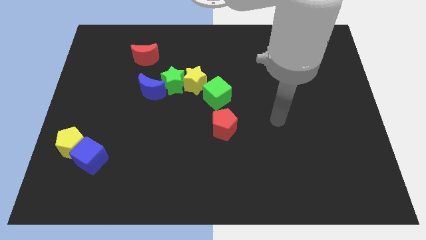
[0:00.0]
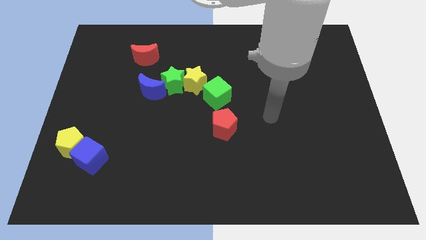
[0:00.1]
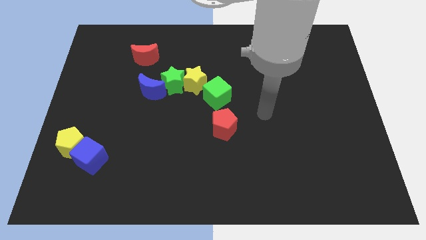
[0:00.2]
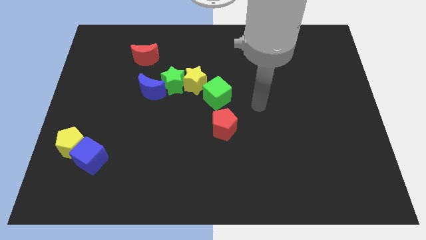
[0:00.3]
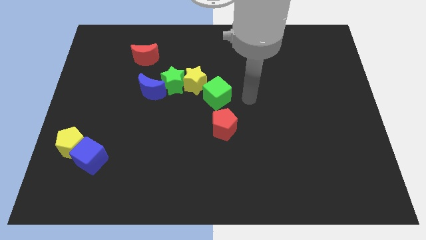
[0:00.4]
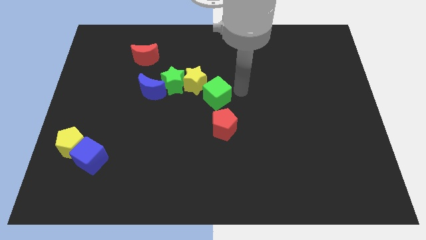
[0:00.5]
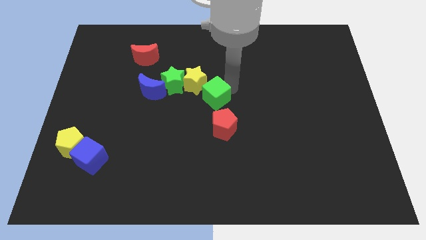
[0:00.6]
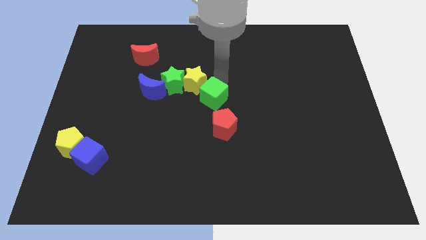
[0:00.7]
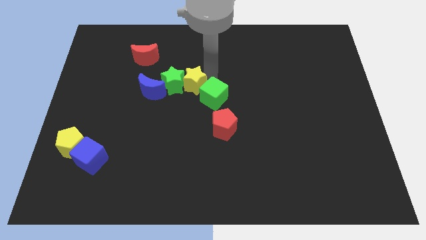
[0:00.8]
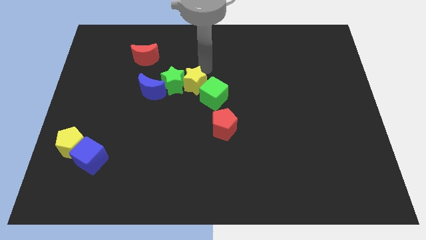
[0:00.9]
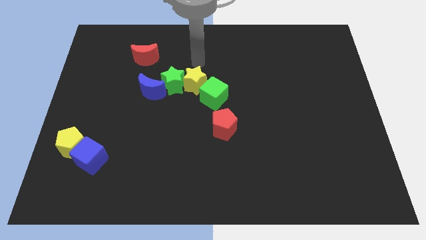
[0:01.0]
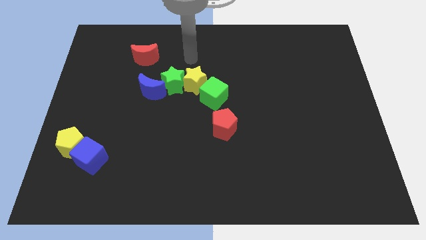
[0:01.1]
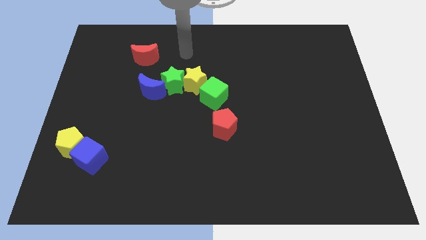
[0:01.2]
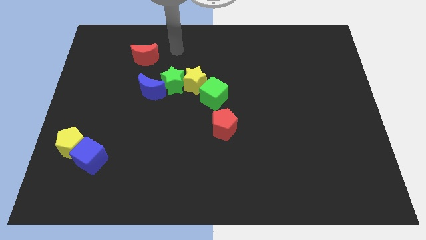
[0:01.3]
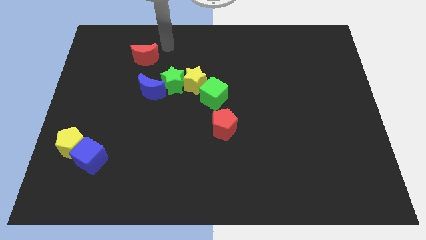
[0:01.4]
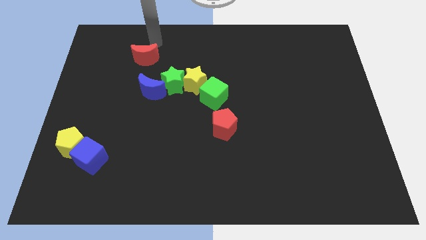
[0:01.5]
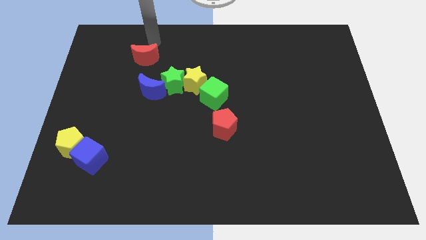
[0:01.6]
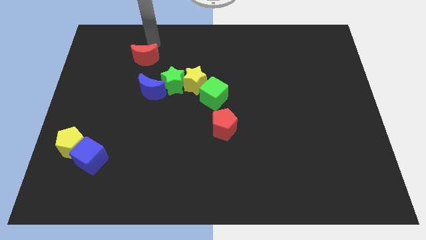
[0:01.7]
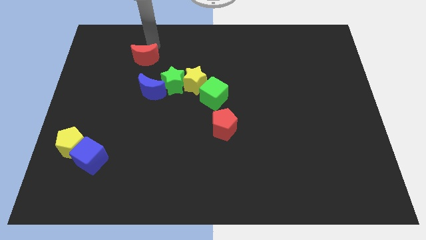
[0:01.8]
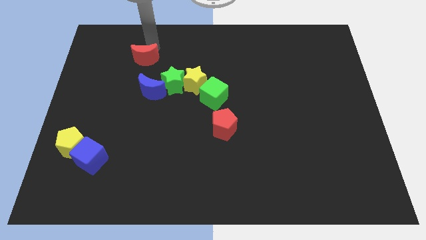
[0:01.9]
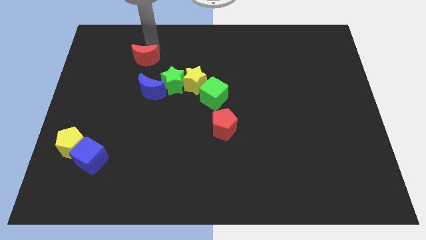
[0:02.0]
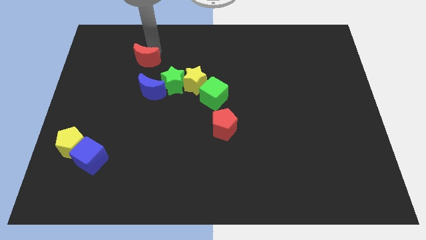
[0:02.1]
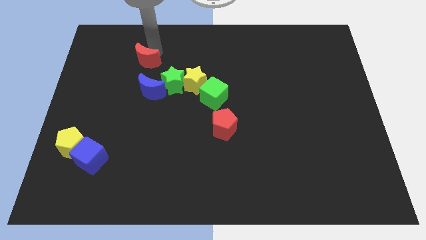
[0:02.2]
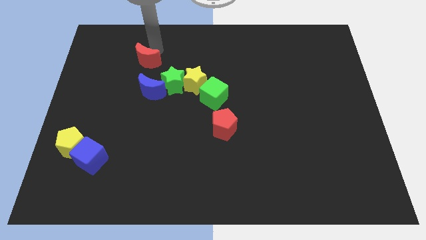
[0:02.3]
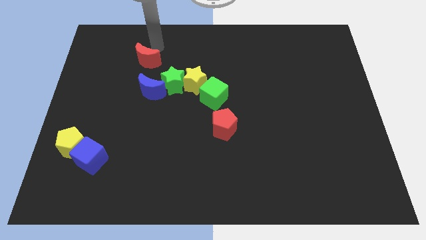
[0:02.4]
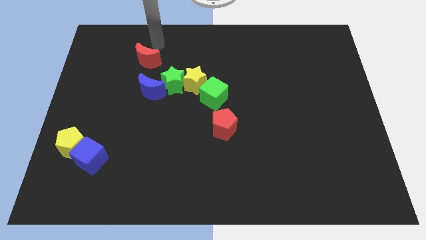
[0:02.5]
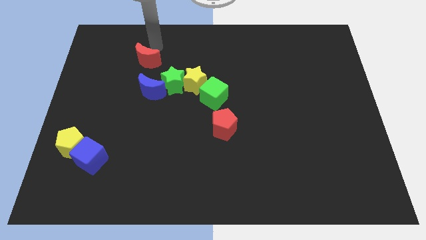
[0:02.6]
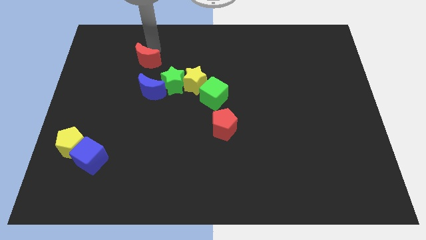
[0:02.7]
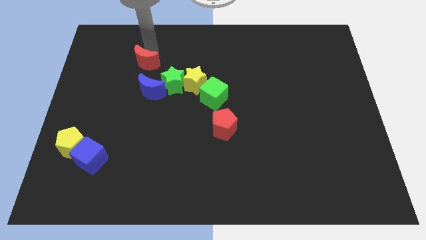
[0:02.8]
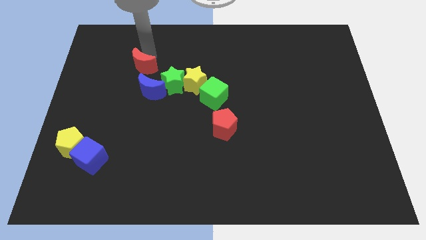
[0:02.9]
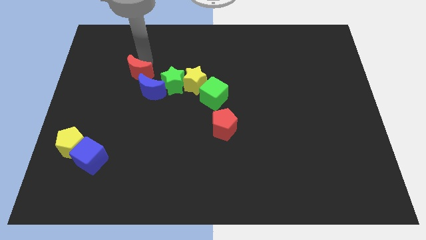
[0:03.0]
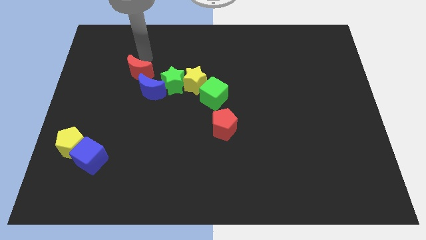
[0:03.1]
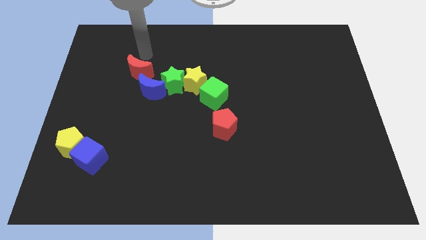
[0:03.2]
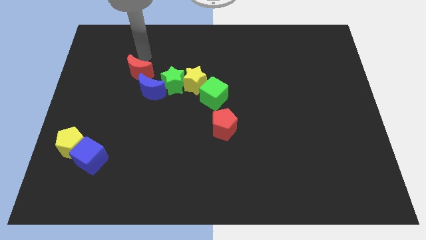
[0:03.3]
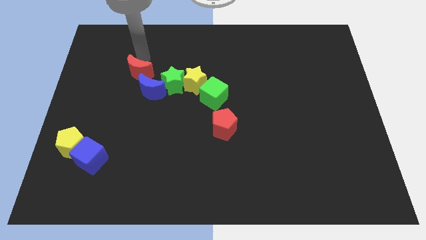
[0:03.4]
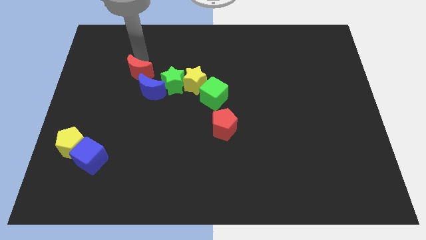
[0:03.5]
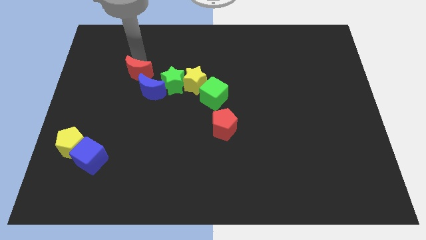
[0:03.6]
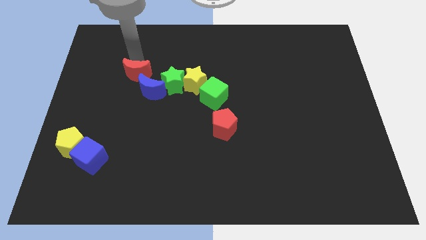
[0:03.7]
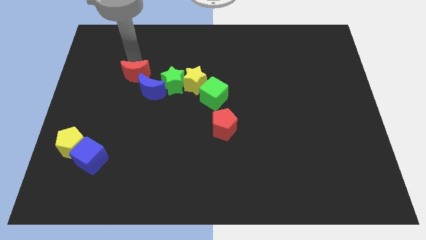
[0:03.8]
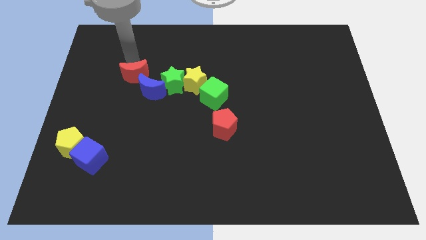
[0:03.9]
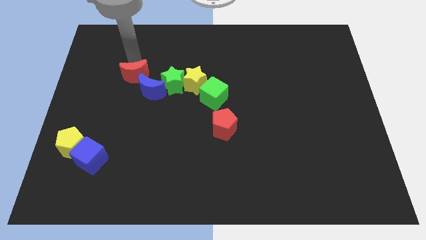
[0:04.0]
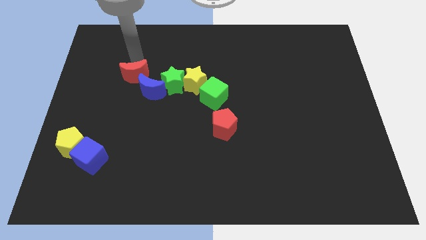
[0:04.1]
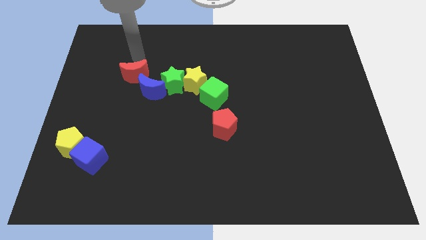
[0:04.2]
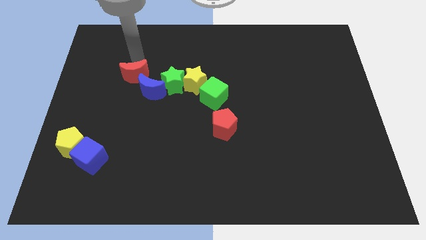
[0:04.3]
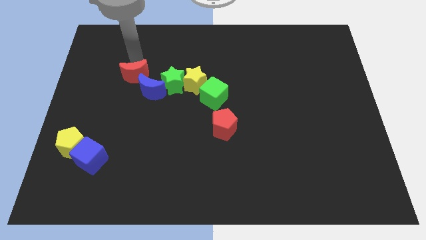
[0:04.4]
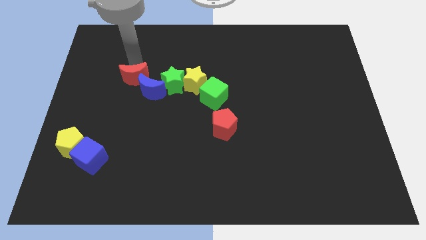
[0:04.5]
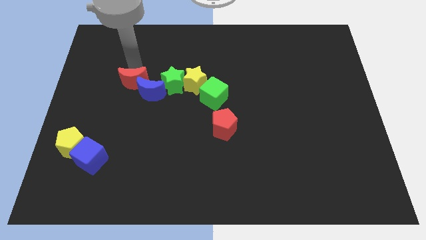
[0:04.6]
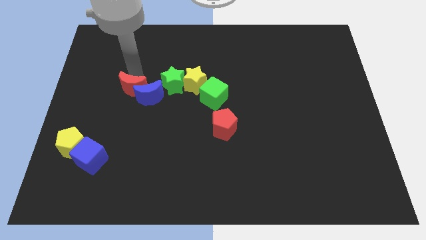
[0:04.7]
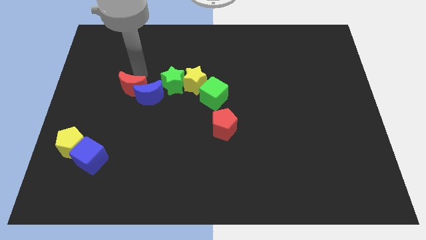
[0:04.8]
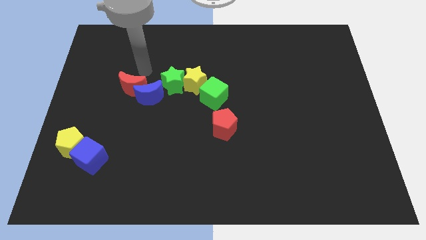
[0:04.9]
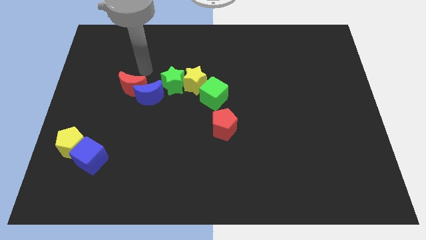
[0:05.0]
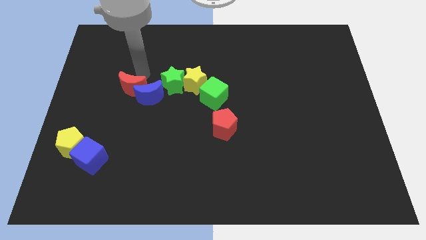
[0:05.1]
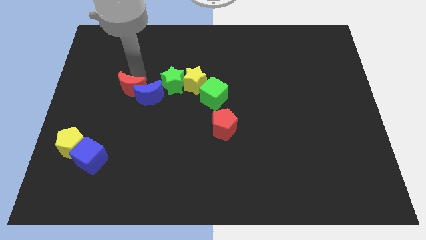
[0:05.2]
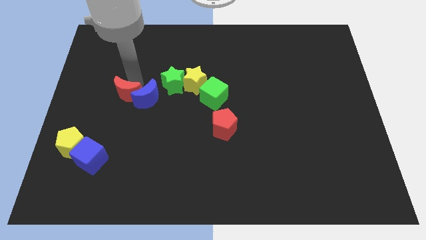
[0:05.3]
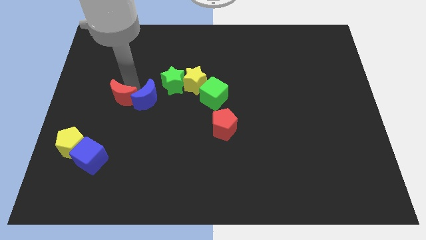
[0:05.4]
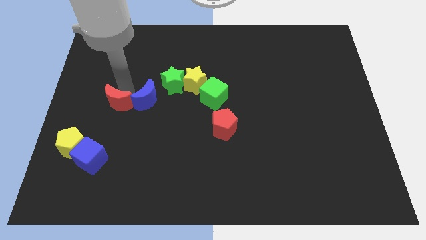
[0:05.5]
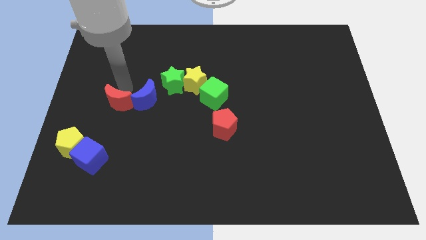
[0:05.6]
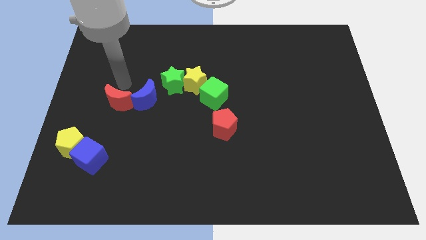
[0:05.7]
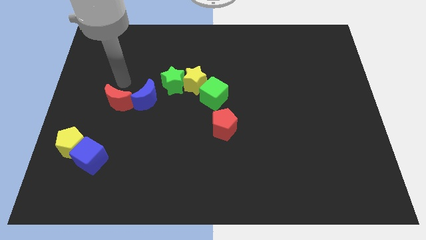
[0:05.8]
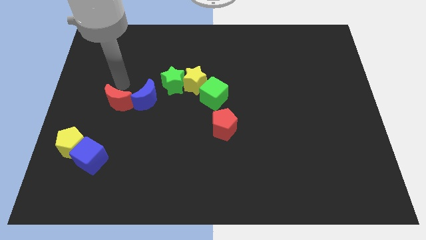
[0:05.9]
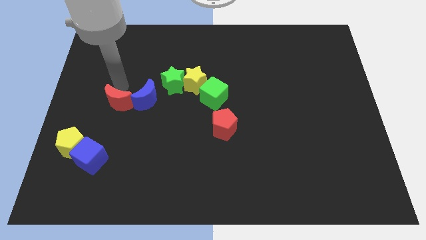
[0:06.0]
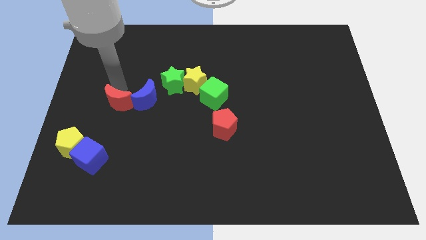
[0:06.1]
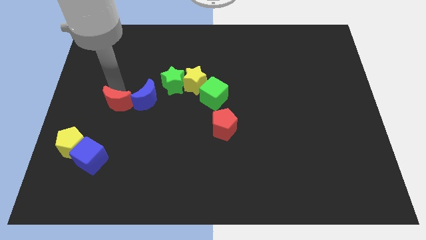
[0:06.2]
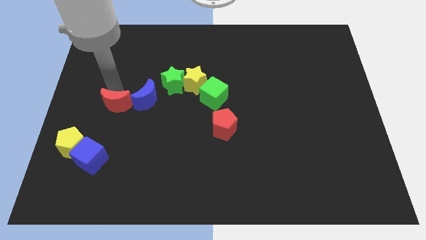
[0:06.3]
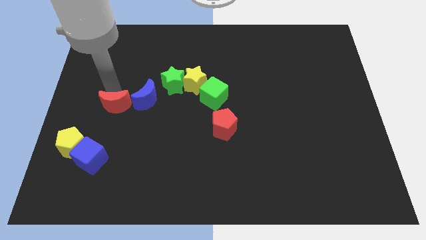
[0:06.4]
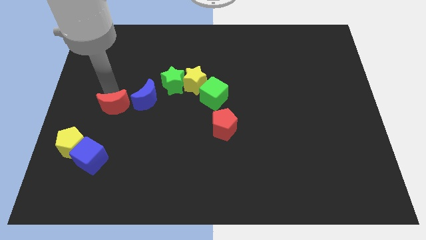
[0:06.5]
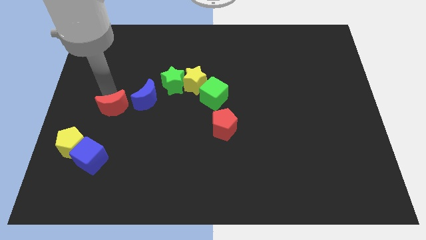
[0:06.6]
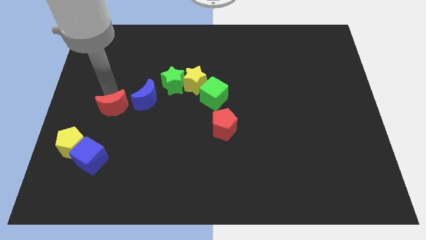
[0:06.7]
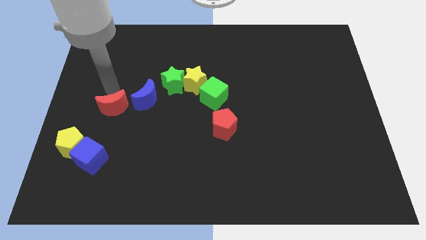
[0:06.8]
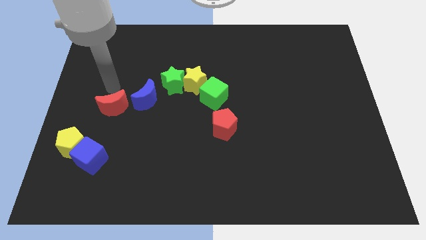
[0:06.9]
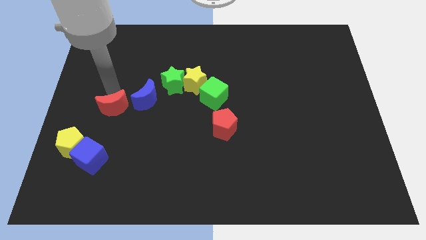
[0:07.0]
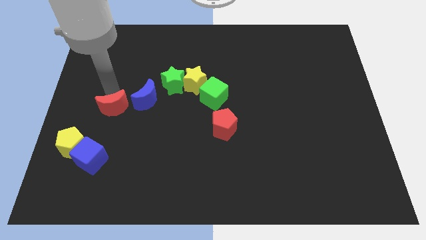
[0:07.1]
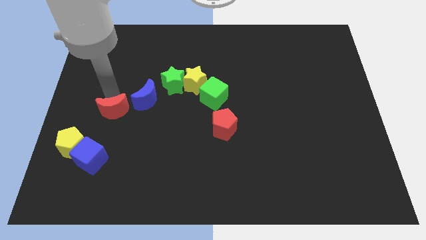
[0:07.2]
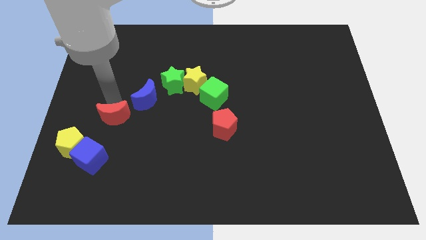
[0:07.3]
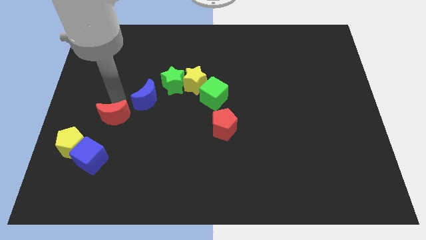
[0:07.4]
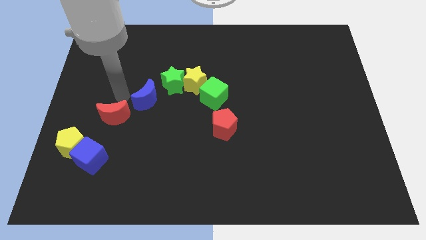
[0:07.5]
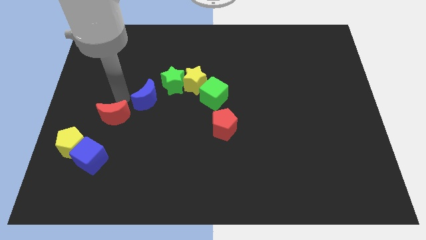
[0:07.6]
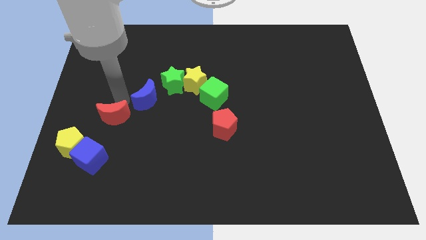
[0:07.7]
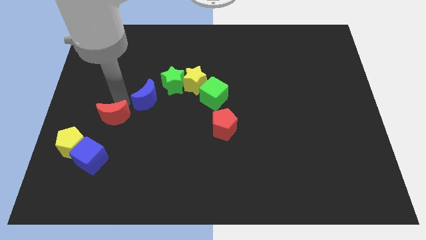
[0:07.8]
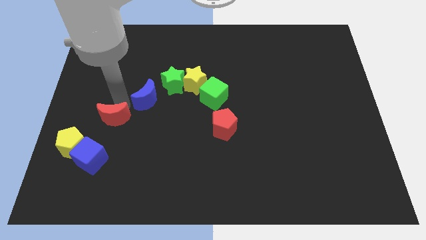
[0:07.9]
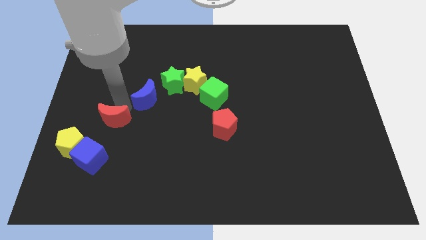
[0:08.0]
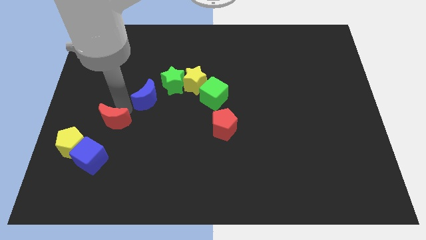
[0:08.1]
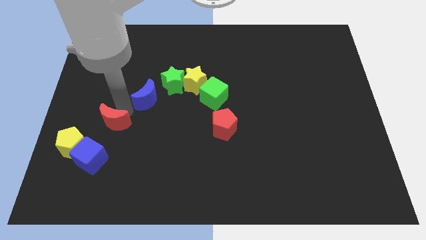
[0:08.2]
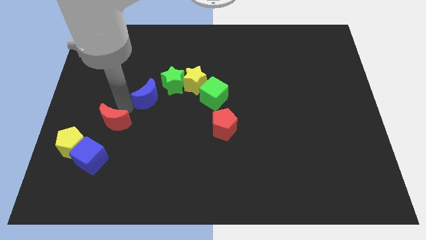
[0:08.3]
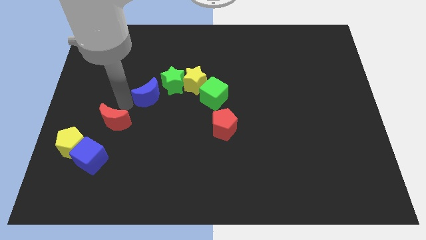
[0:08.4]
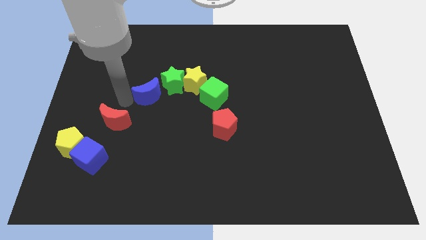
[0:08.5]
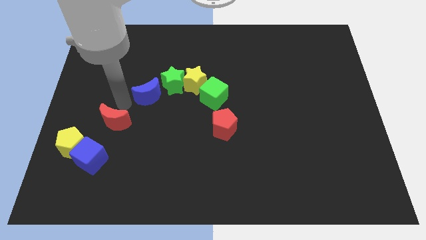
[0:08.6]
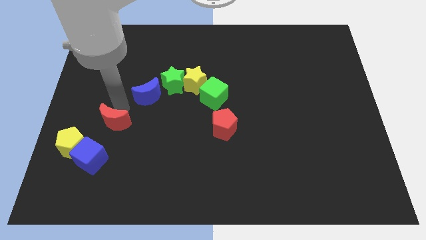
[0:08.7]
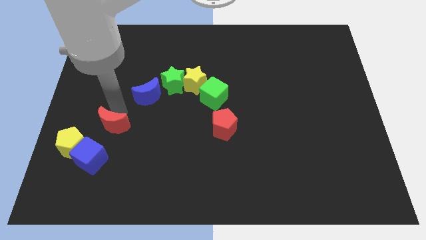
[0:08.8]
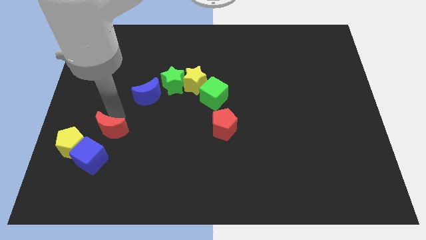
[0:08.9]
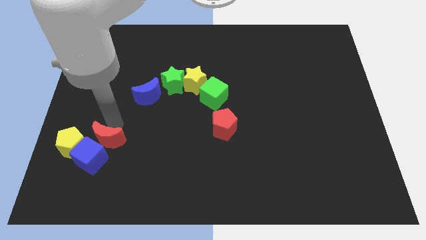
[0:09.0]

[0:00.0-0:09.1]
push the red moon next to the blue cube
